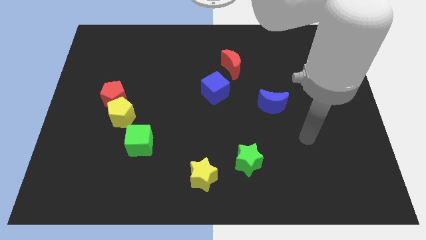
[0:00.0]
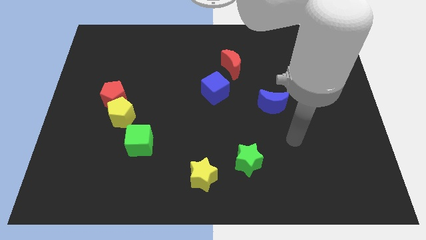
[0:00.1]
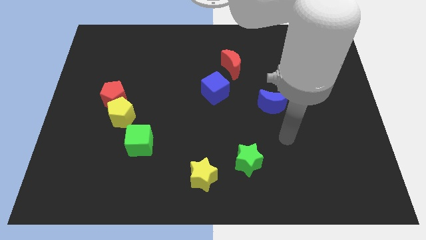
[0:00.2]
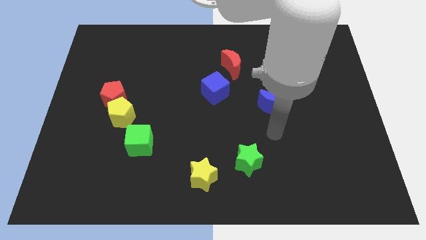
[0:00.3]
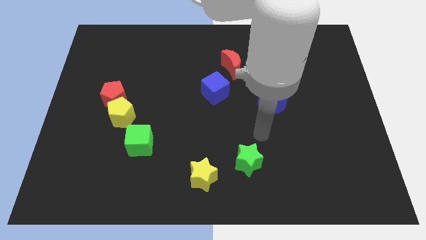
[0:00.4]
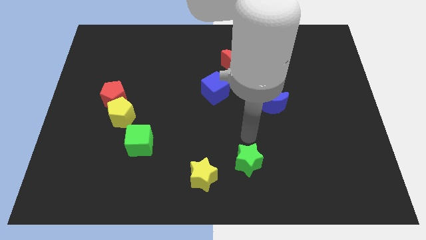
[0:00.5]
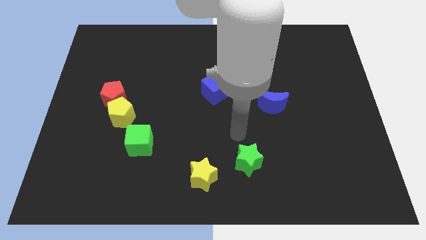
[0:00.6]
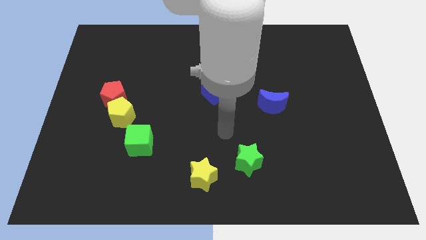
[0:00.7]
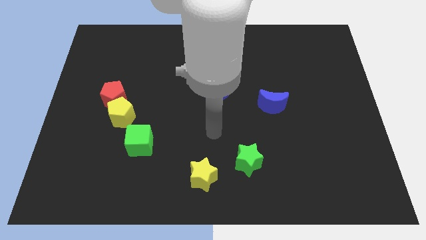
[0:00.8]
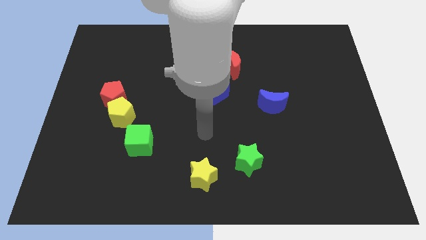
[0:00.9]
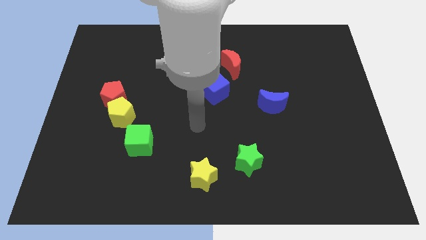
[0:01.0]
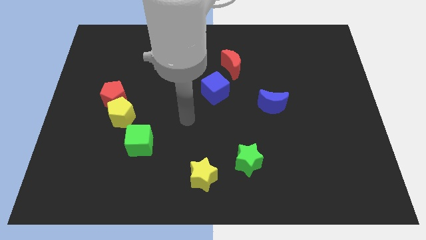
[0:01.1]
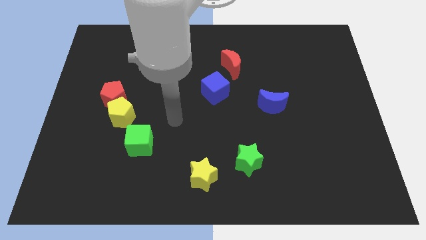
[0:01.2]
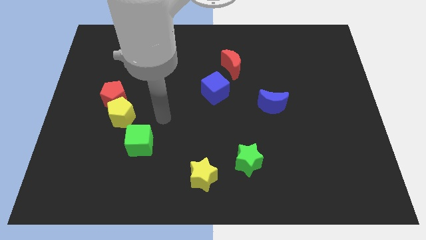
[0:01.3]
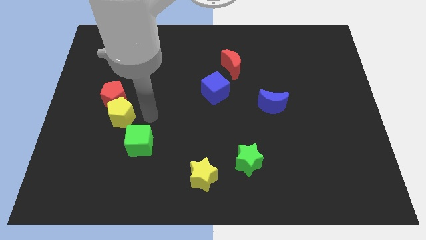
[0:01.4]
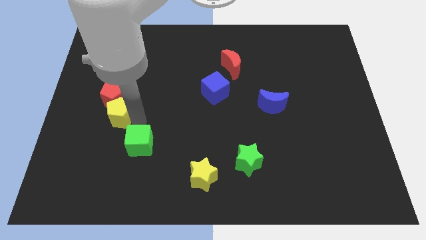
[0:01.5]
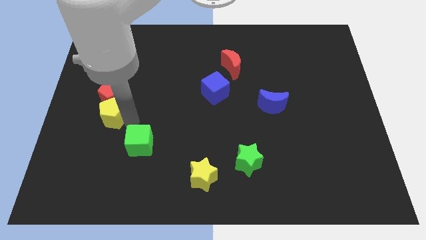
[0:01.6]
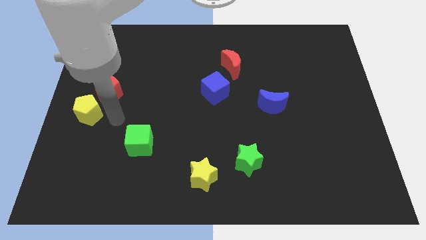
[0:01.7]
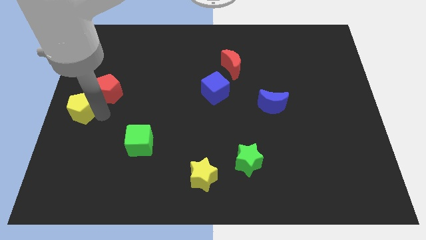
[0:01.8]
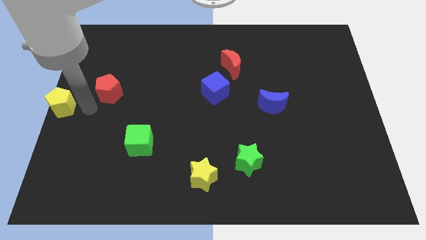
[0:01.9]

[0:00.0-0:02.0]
separate the red pentagon from the yellow pentagon

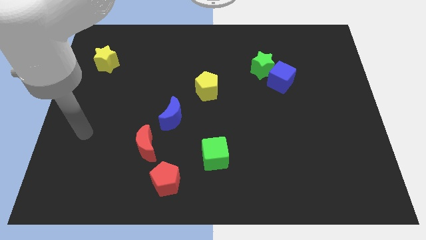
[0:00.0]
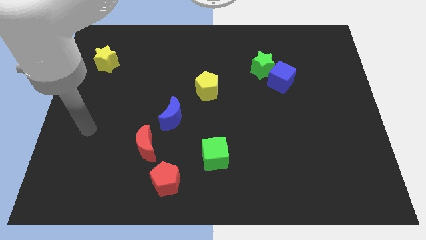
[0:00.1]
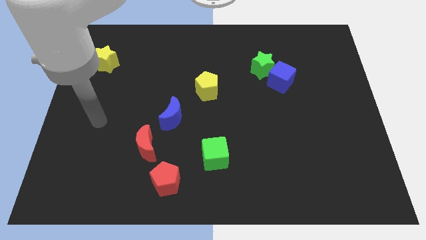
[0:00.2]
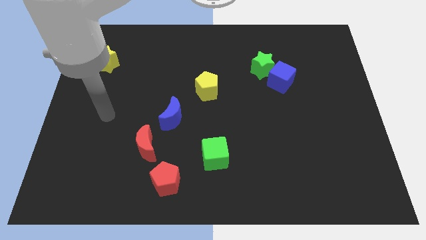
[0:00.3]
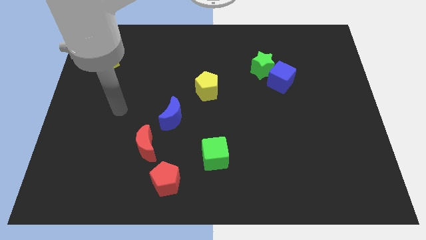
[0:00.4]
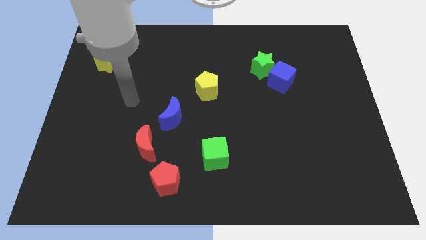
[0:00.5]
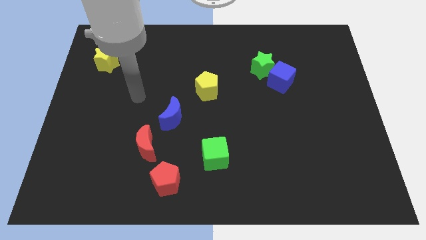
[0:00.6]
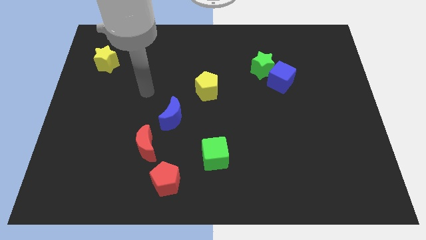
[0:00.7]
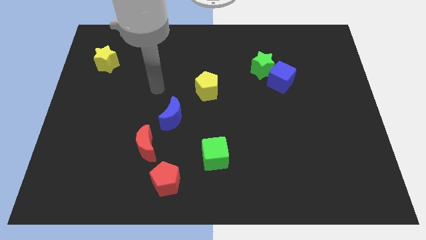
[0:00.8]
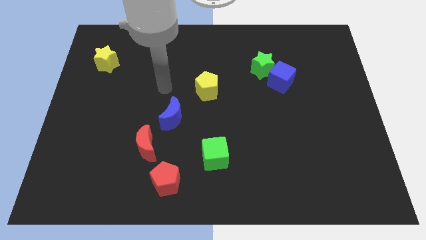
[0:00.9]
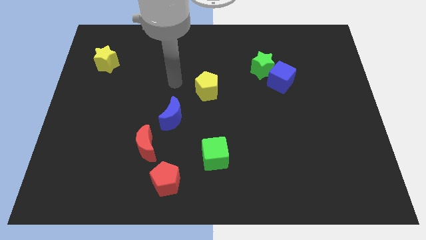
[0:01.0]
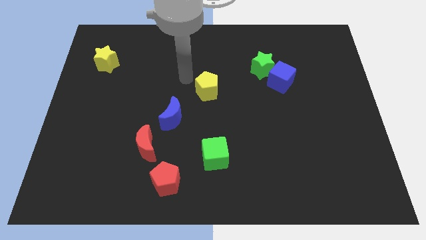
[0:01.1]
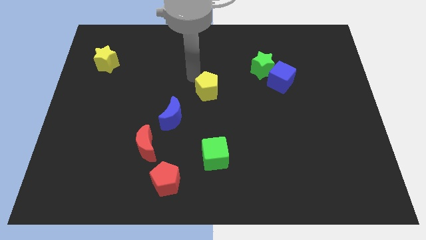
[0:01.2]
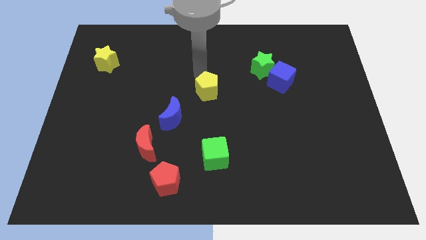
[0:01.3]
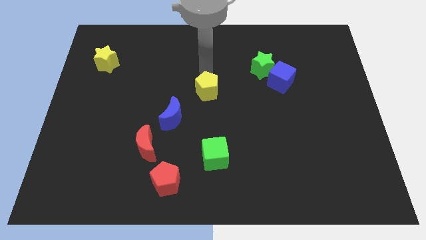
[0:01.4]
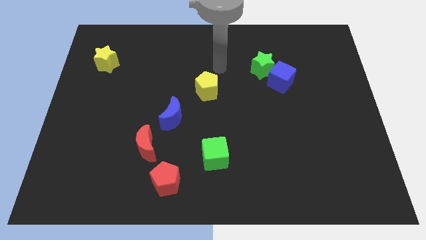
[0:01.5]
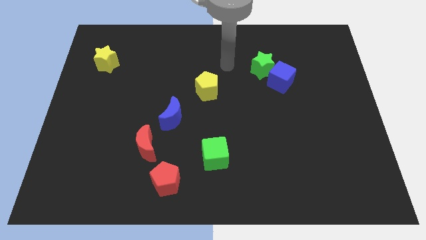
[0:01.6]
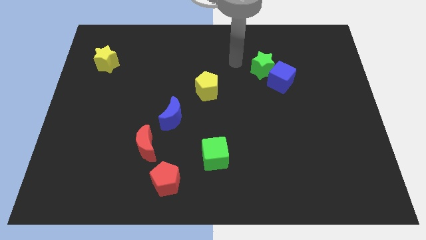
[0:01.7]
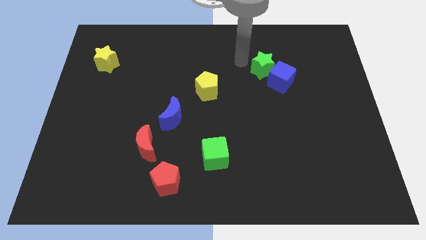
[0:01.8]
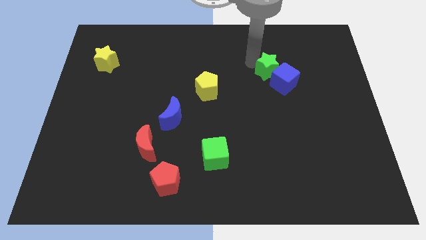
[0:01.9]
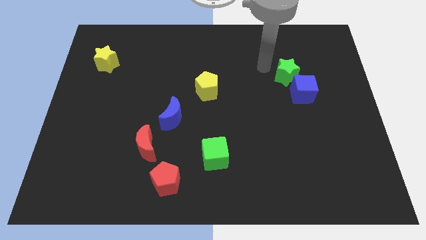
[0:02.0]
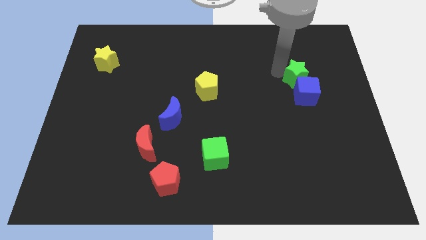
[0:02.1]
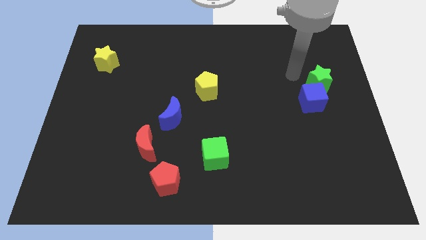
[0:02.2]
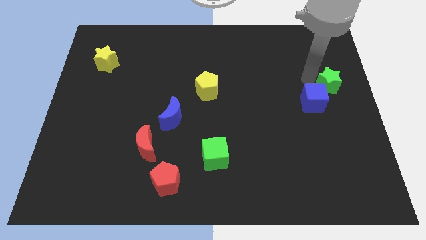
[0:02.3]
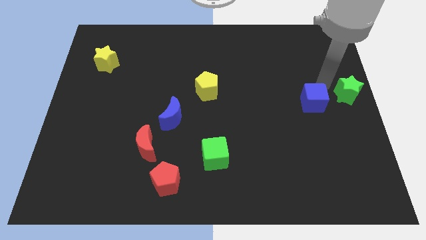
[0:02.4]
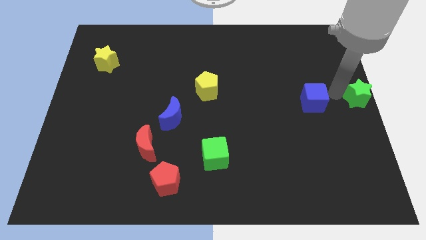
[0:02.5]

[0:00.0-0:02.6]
pull the blue cube apart from the green star

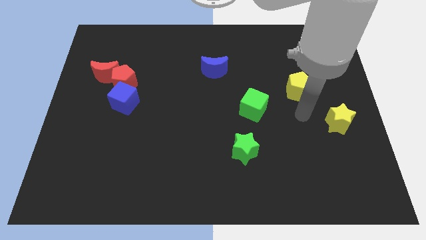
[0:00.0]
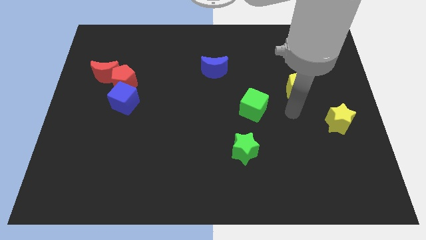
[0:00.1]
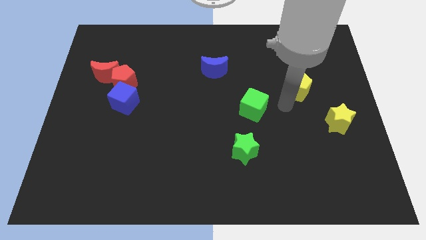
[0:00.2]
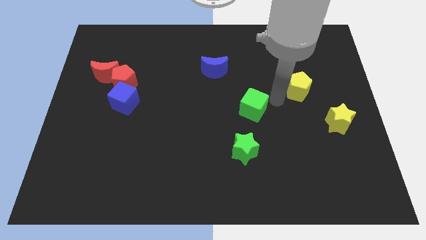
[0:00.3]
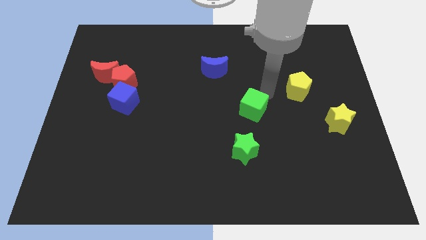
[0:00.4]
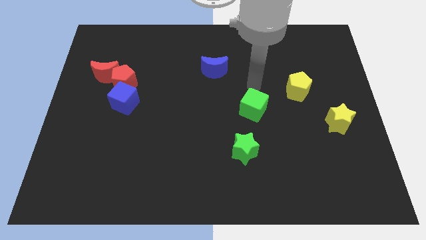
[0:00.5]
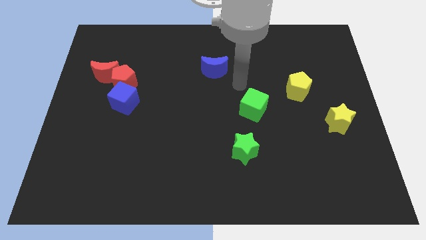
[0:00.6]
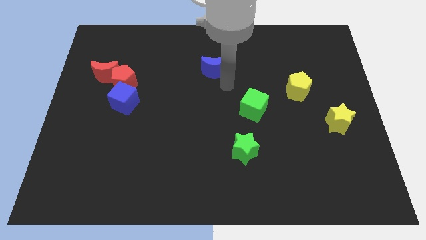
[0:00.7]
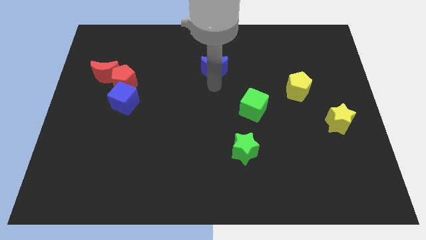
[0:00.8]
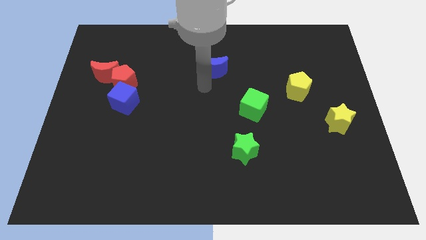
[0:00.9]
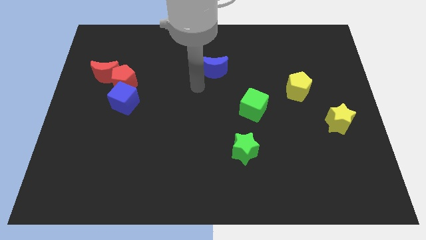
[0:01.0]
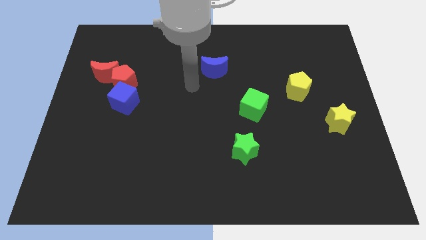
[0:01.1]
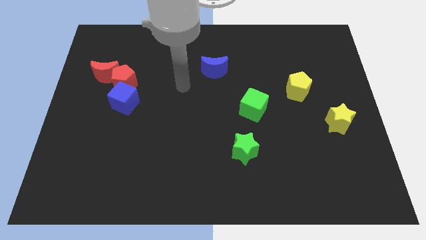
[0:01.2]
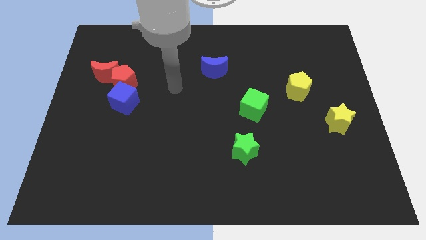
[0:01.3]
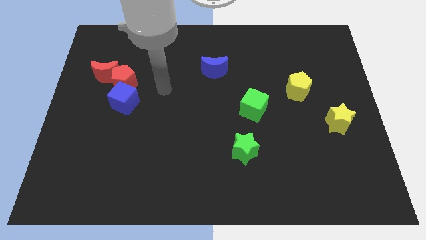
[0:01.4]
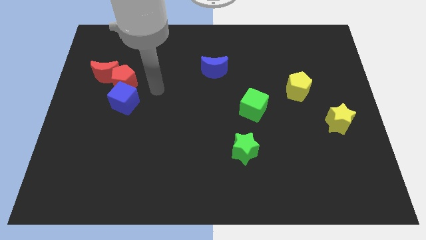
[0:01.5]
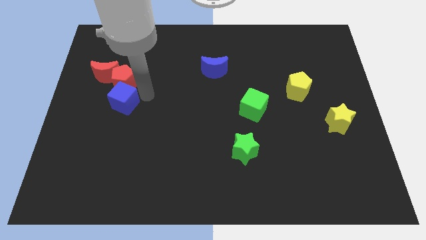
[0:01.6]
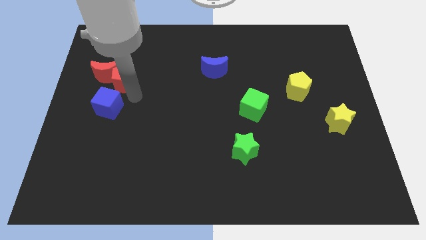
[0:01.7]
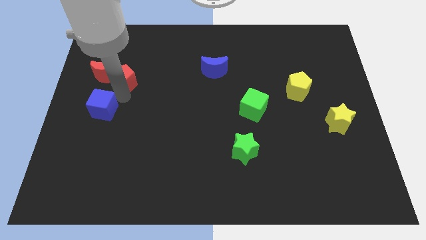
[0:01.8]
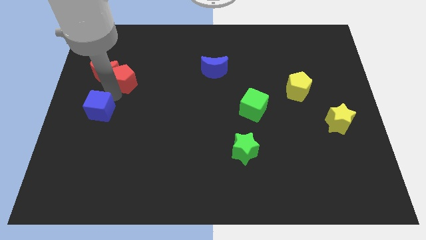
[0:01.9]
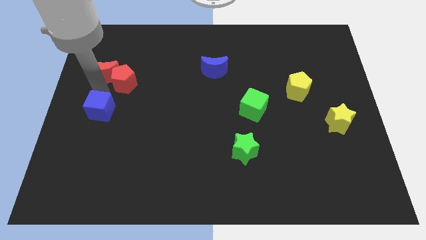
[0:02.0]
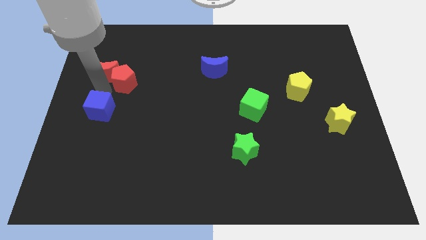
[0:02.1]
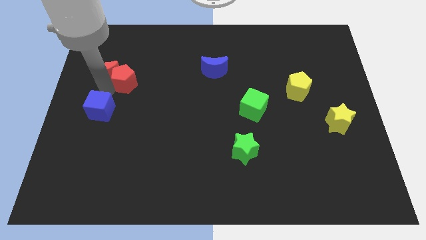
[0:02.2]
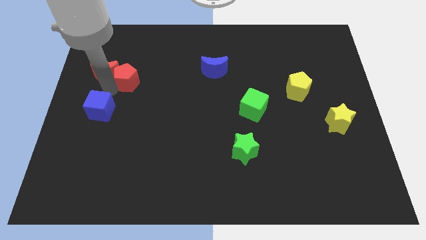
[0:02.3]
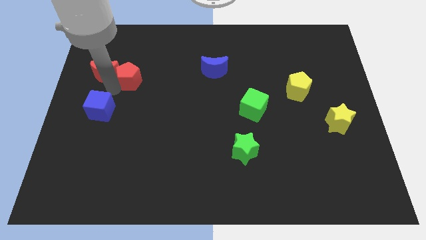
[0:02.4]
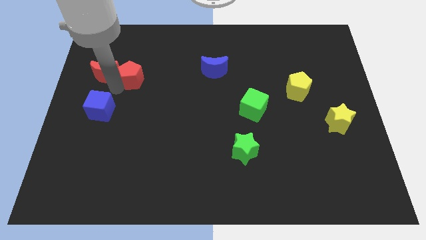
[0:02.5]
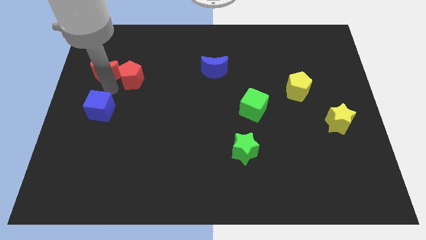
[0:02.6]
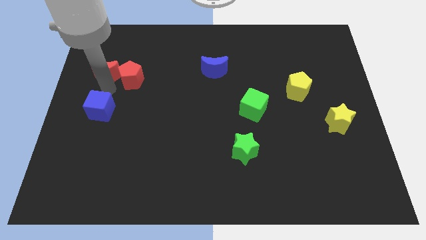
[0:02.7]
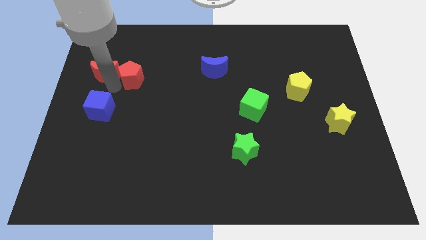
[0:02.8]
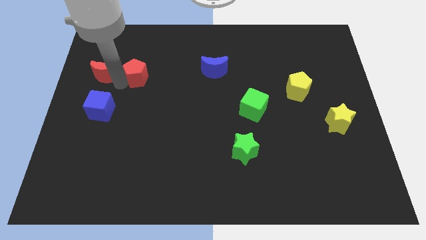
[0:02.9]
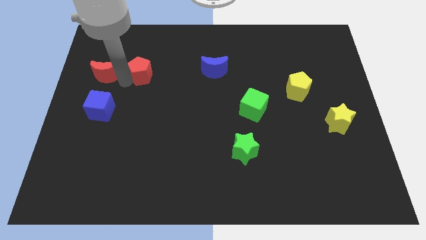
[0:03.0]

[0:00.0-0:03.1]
move the red pentagon away from the red moon and blue cube

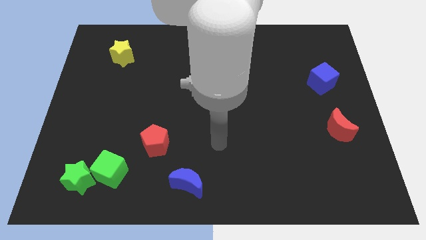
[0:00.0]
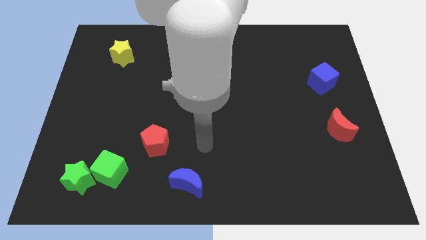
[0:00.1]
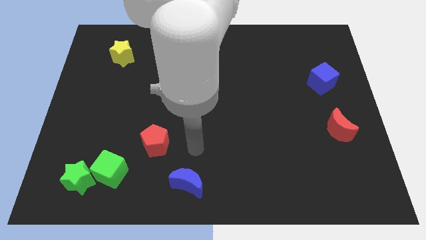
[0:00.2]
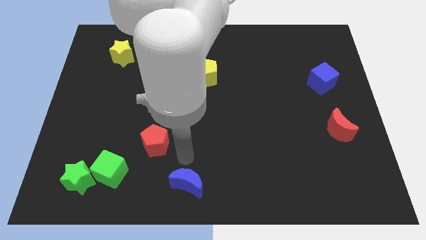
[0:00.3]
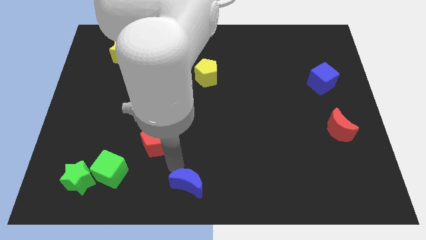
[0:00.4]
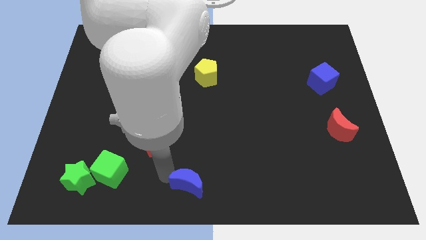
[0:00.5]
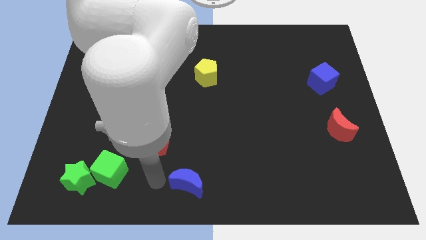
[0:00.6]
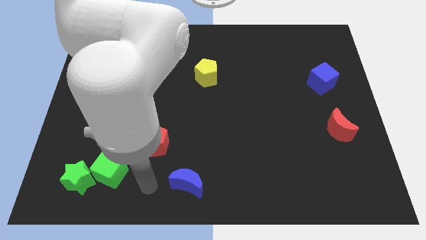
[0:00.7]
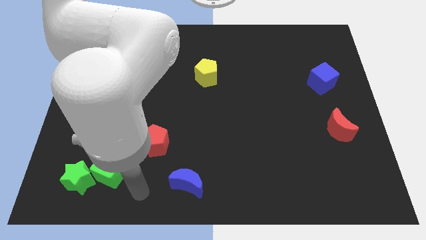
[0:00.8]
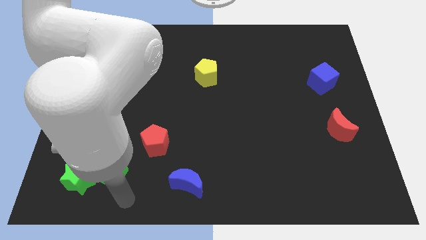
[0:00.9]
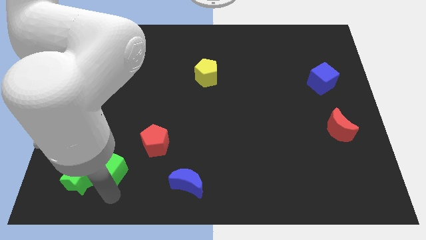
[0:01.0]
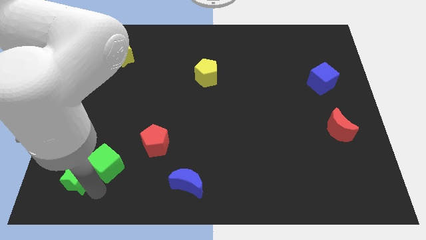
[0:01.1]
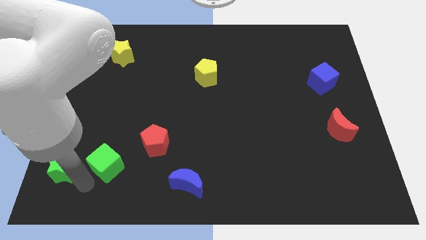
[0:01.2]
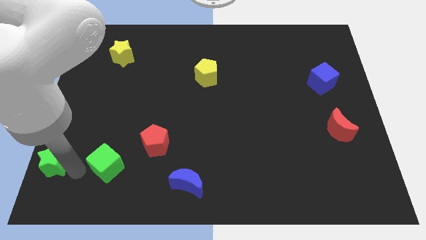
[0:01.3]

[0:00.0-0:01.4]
separate the green cube from the green star

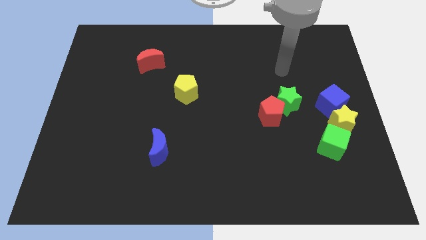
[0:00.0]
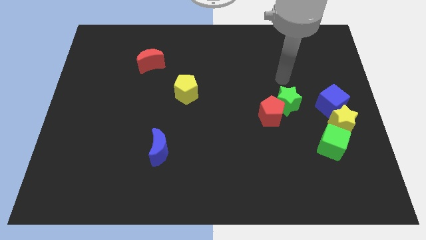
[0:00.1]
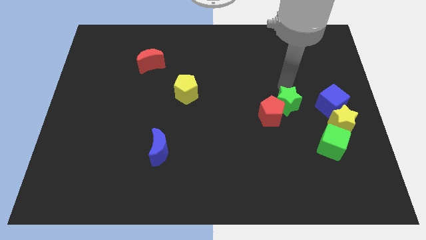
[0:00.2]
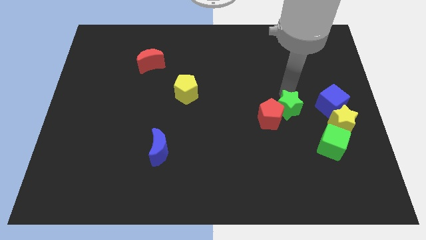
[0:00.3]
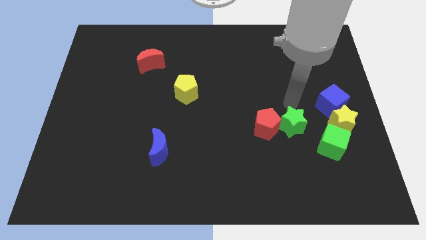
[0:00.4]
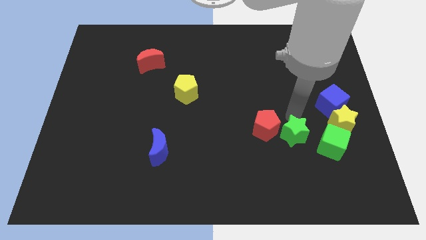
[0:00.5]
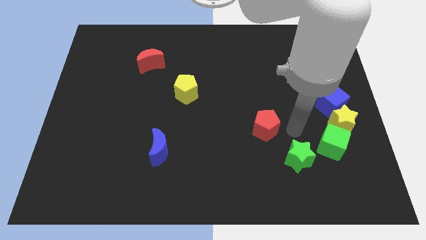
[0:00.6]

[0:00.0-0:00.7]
move the red pentagon away from the green star
